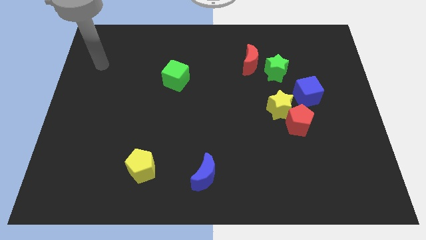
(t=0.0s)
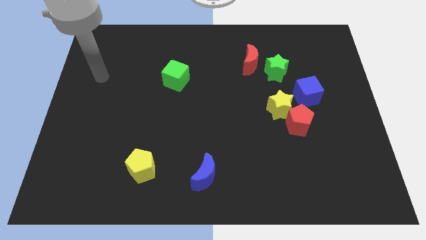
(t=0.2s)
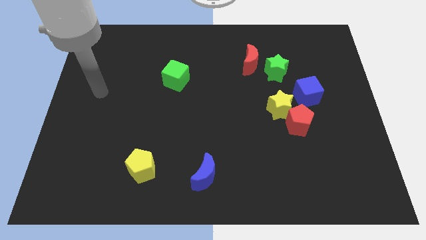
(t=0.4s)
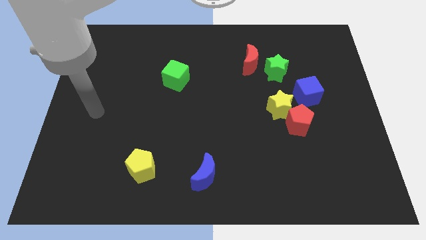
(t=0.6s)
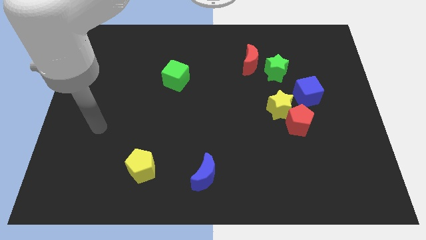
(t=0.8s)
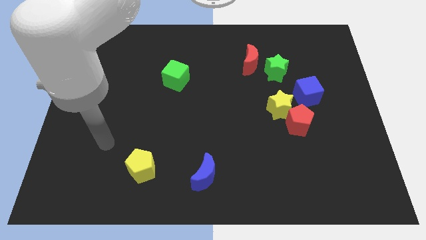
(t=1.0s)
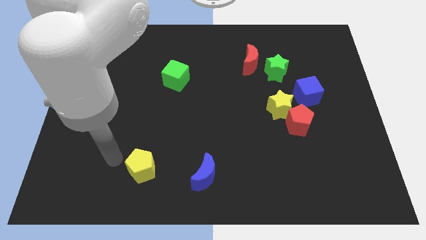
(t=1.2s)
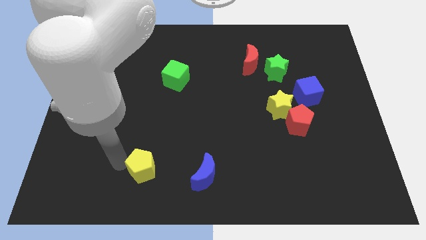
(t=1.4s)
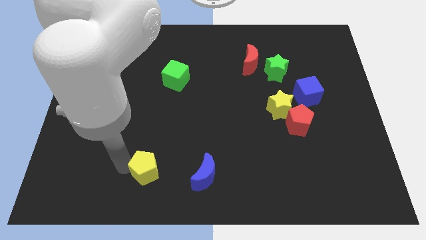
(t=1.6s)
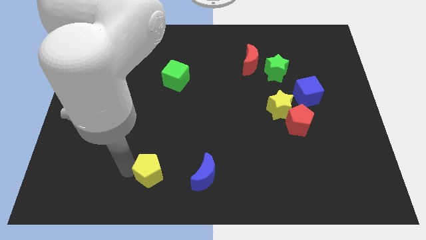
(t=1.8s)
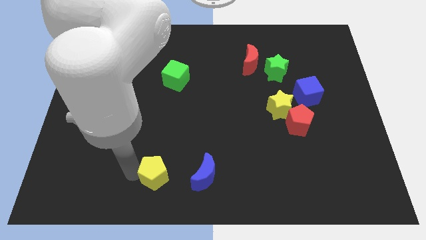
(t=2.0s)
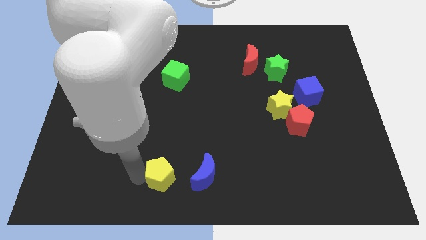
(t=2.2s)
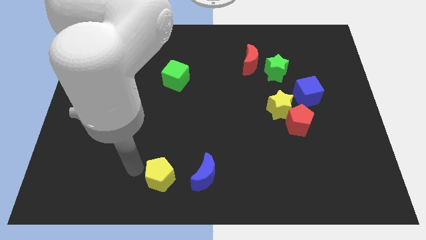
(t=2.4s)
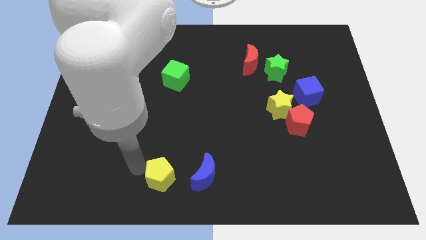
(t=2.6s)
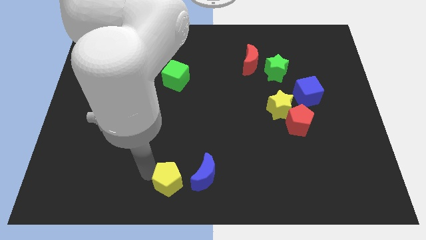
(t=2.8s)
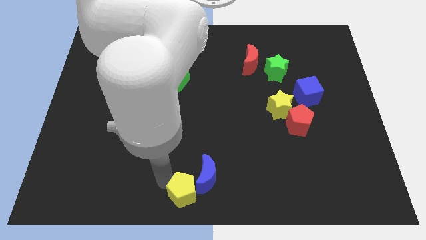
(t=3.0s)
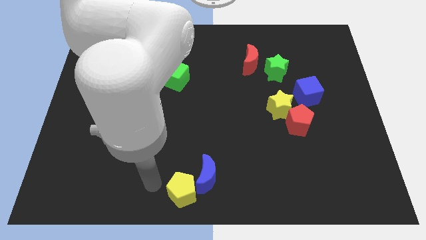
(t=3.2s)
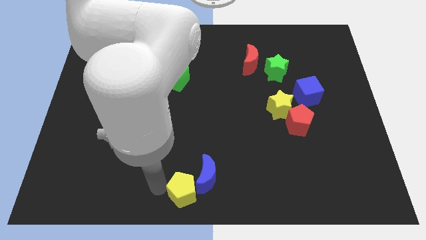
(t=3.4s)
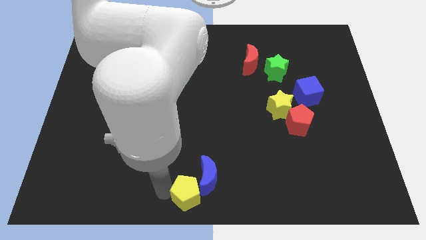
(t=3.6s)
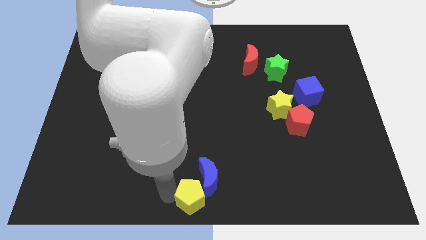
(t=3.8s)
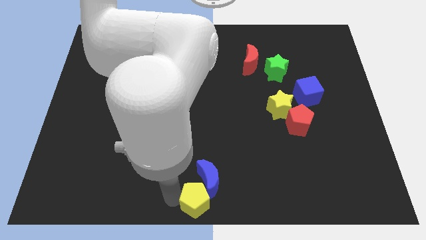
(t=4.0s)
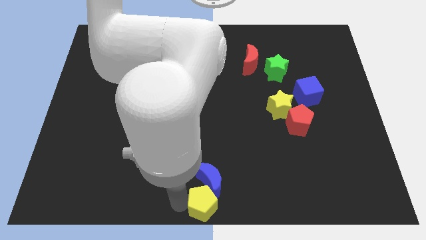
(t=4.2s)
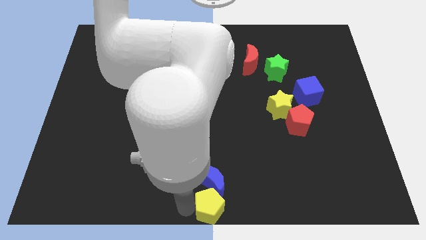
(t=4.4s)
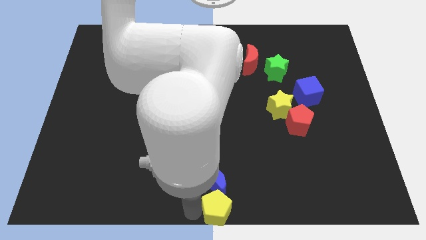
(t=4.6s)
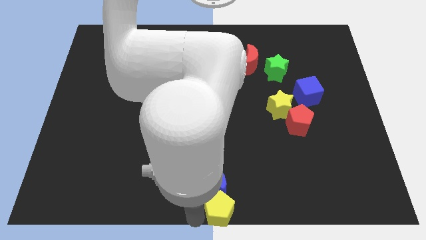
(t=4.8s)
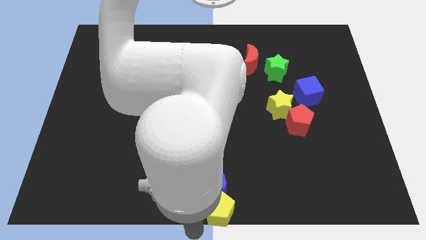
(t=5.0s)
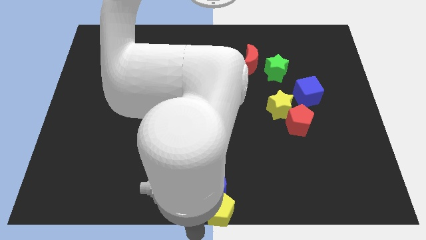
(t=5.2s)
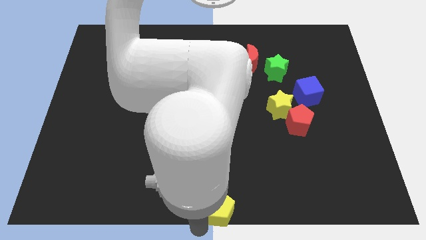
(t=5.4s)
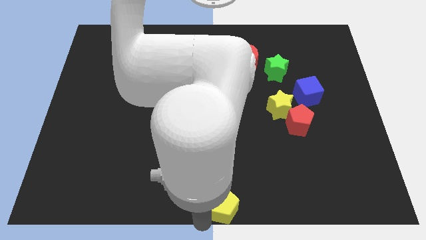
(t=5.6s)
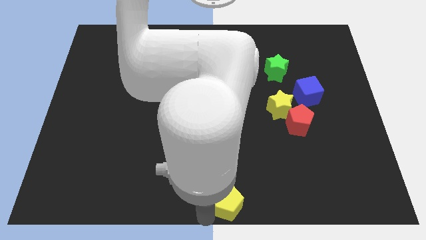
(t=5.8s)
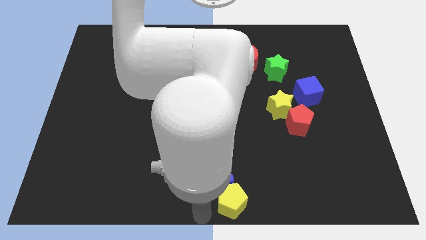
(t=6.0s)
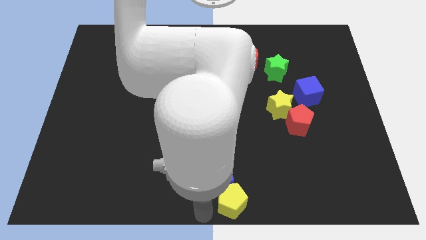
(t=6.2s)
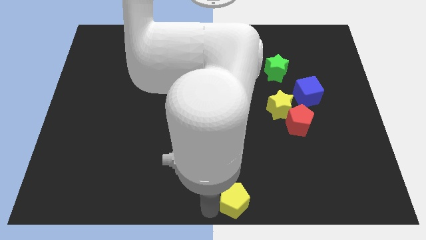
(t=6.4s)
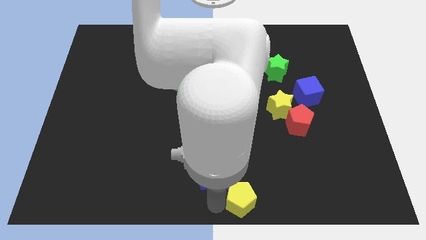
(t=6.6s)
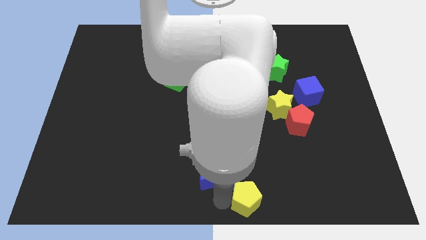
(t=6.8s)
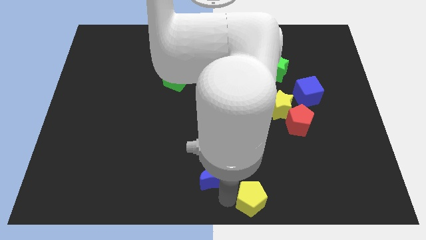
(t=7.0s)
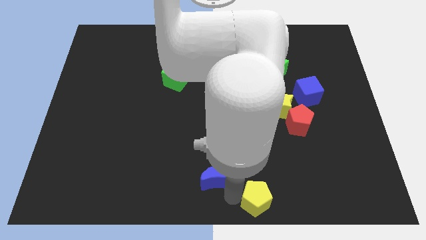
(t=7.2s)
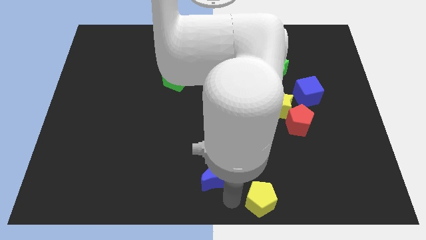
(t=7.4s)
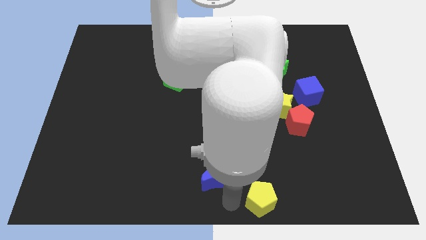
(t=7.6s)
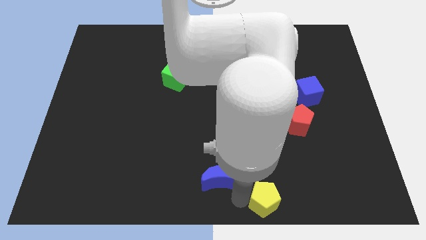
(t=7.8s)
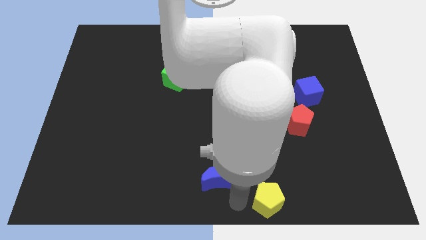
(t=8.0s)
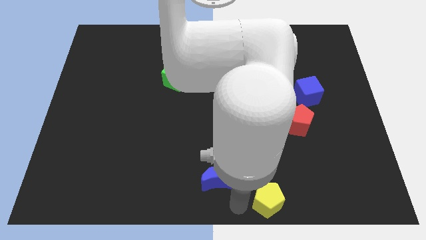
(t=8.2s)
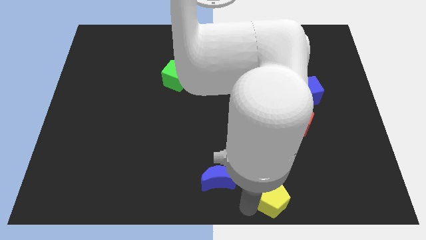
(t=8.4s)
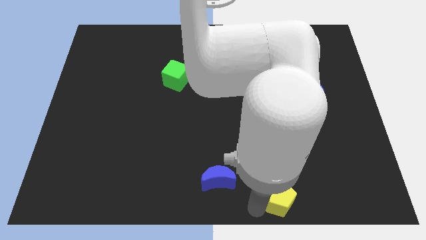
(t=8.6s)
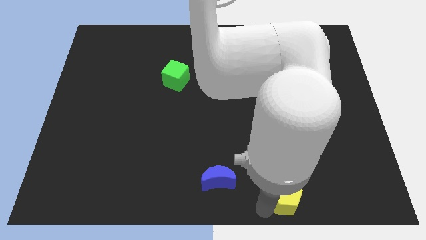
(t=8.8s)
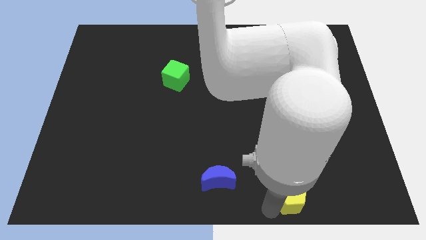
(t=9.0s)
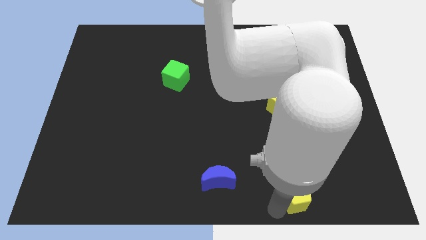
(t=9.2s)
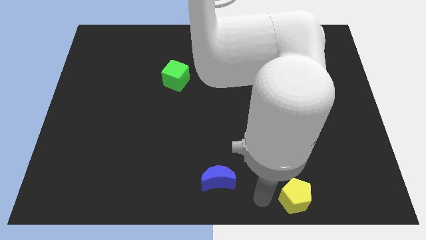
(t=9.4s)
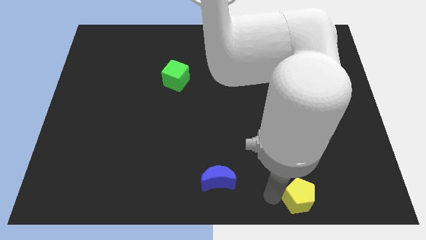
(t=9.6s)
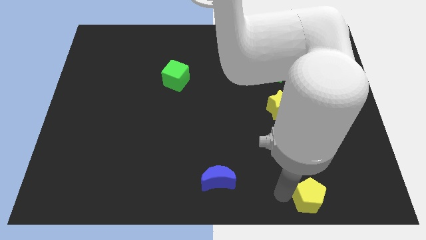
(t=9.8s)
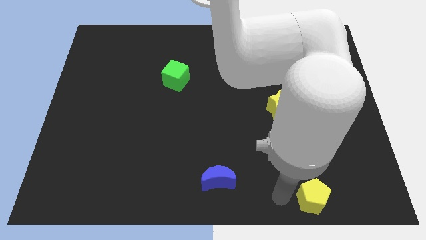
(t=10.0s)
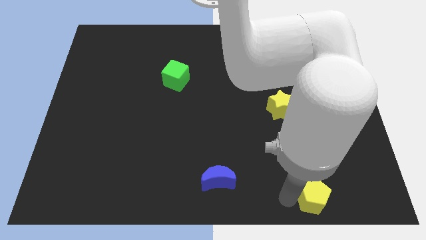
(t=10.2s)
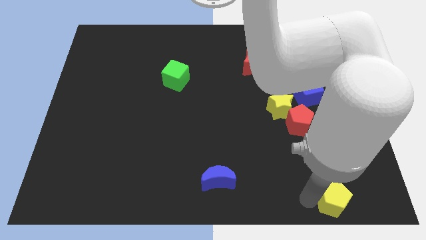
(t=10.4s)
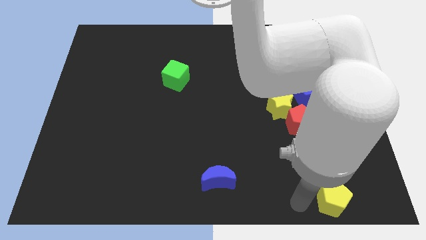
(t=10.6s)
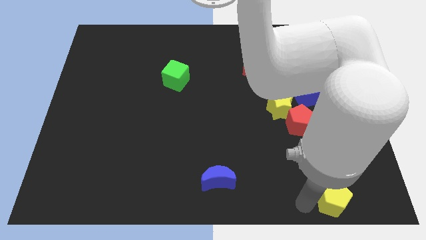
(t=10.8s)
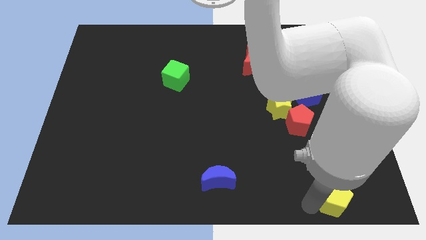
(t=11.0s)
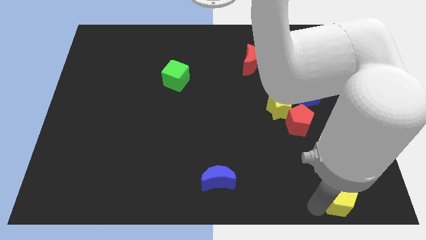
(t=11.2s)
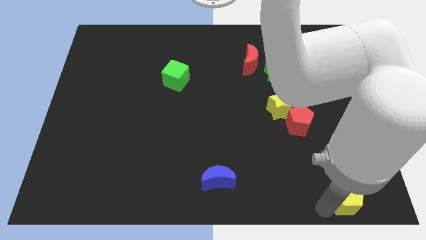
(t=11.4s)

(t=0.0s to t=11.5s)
slide the yellow pentagon to the bottom right corner
